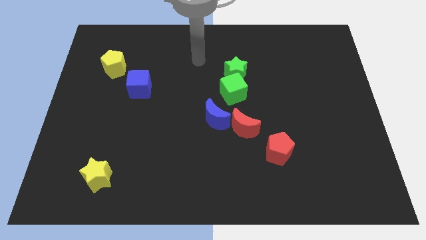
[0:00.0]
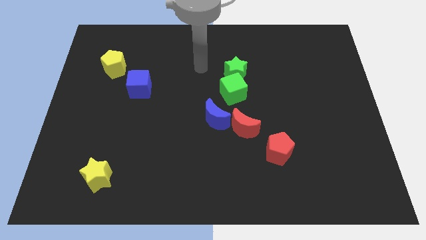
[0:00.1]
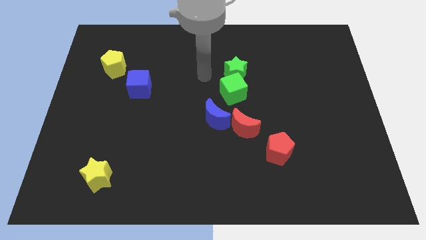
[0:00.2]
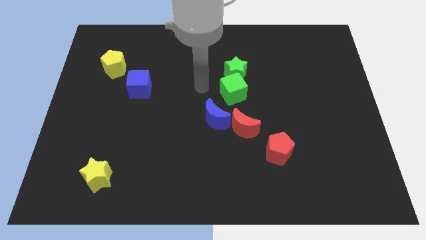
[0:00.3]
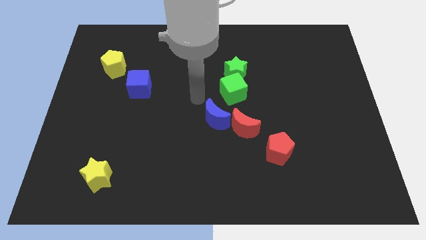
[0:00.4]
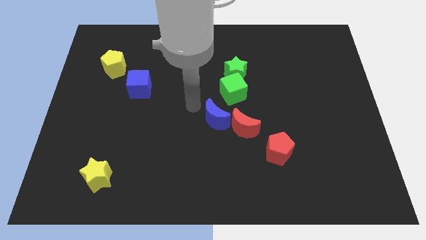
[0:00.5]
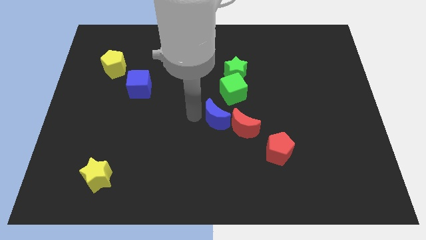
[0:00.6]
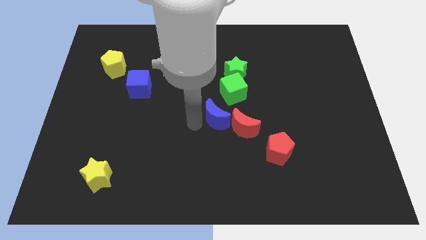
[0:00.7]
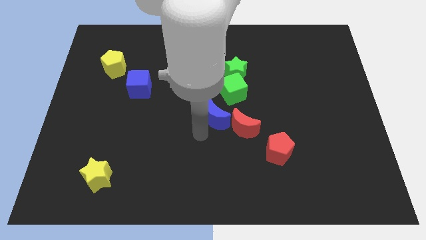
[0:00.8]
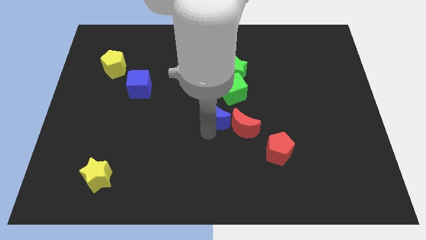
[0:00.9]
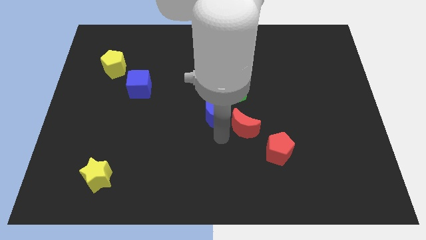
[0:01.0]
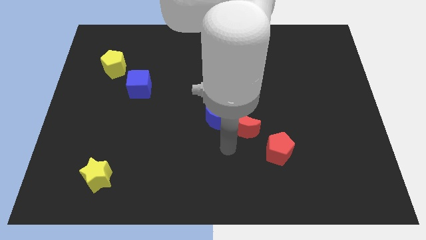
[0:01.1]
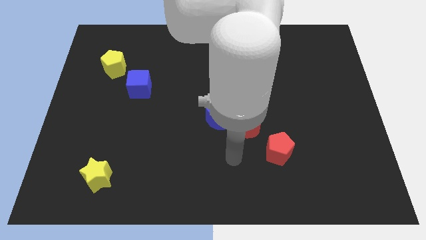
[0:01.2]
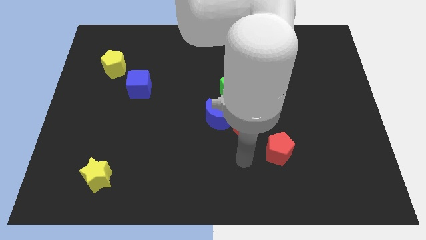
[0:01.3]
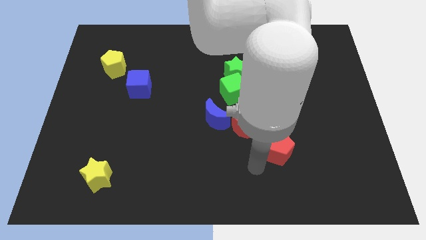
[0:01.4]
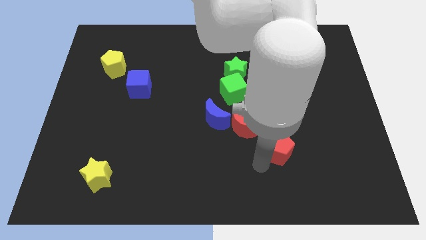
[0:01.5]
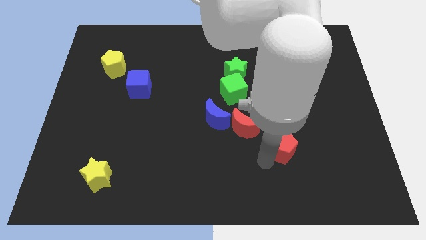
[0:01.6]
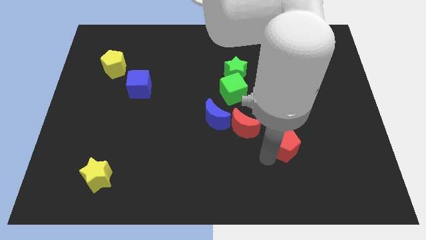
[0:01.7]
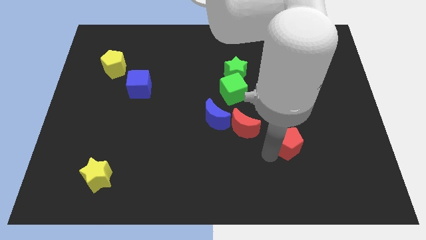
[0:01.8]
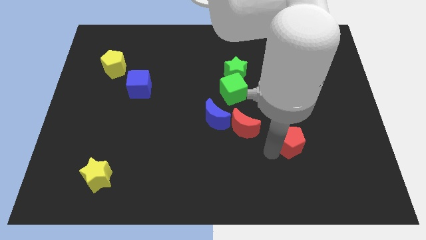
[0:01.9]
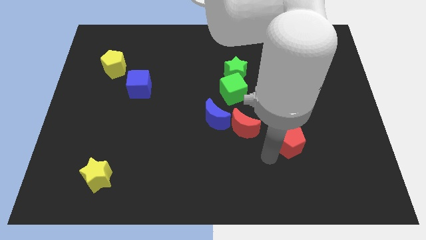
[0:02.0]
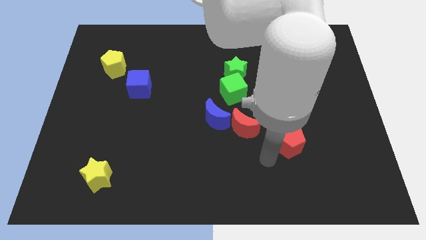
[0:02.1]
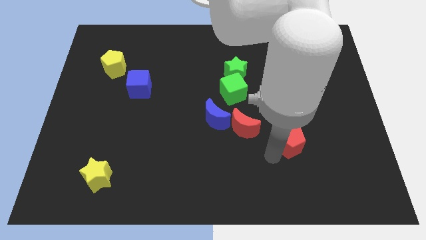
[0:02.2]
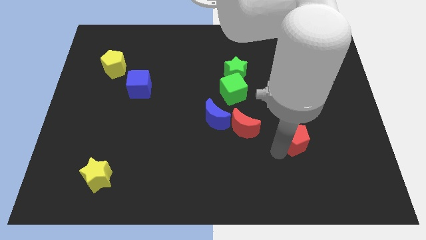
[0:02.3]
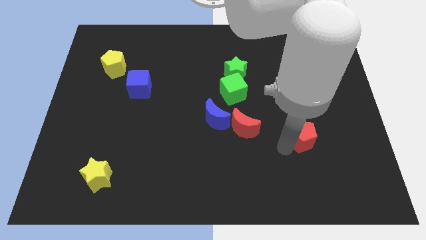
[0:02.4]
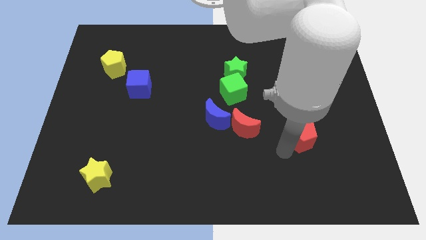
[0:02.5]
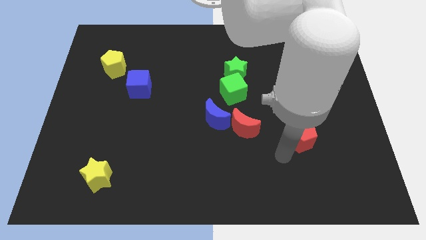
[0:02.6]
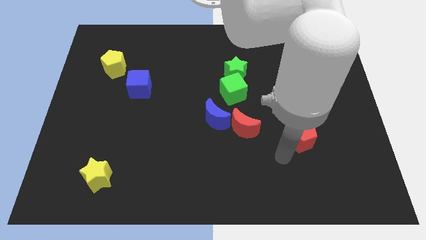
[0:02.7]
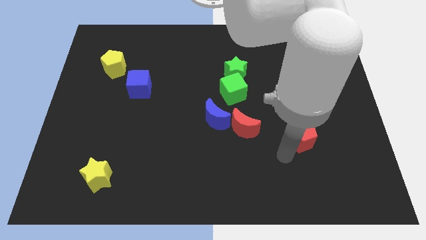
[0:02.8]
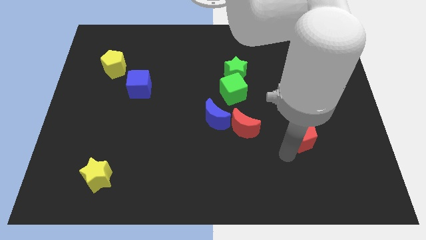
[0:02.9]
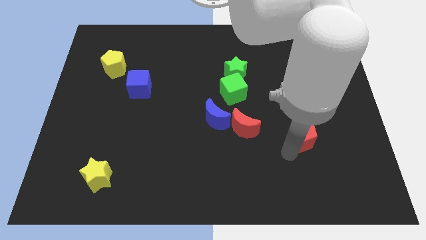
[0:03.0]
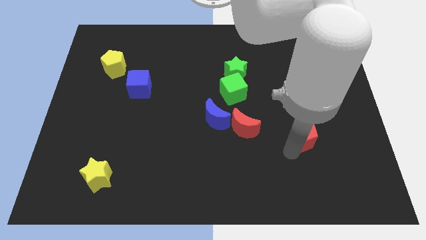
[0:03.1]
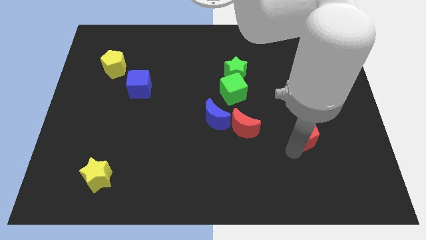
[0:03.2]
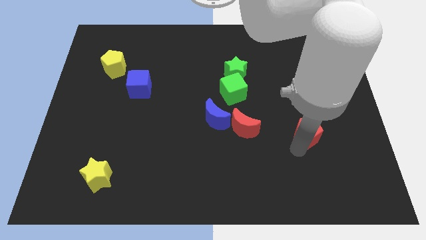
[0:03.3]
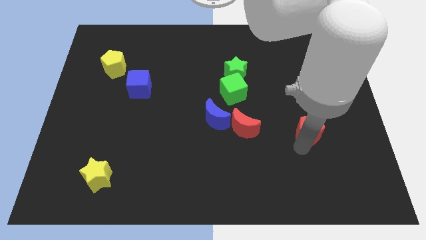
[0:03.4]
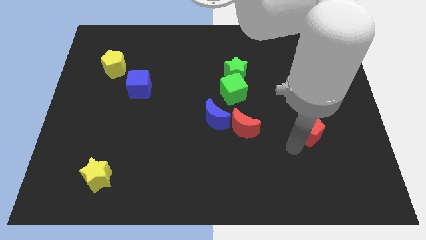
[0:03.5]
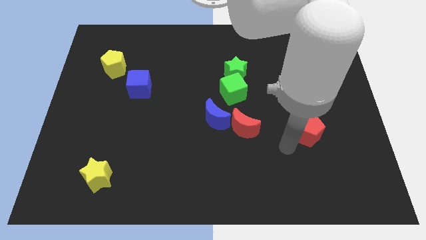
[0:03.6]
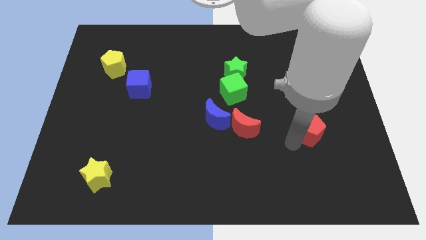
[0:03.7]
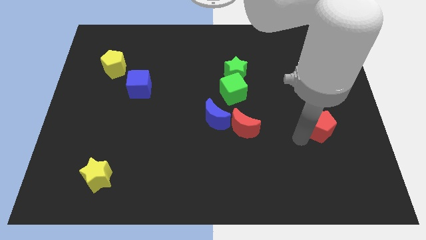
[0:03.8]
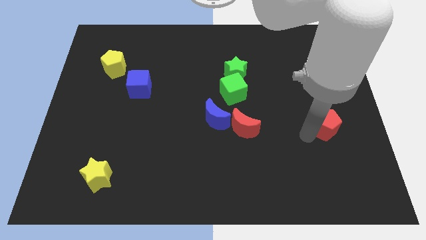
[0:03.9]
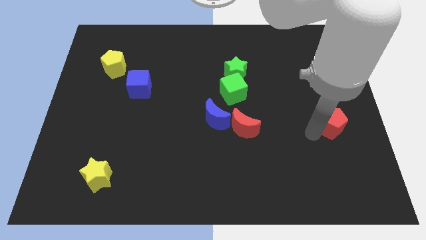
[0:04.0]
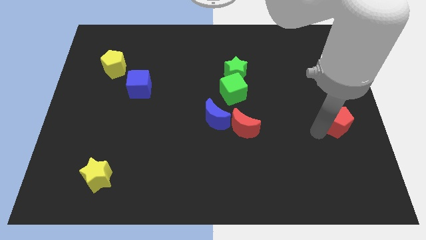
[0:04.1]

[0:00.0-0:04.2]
push the red pentagon to the center right

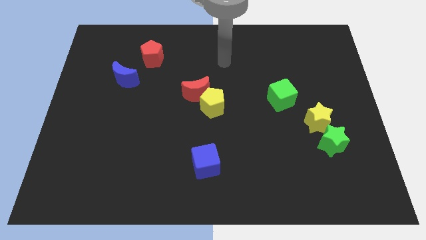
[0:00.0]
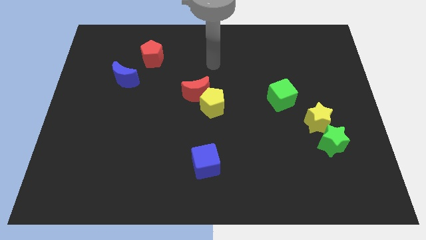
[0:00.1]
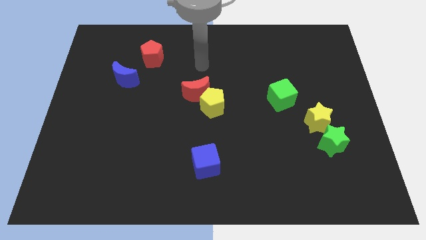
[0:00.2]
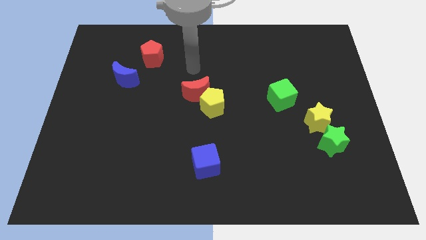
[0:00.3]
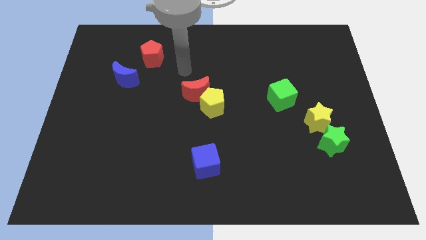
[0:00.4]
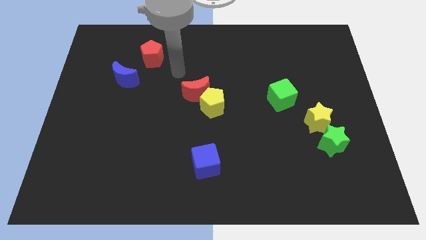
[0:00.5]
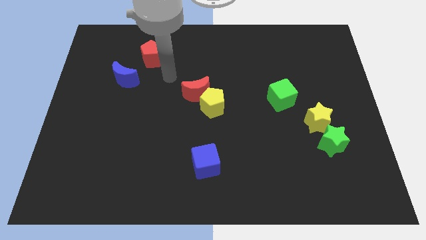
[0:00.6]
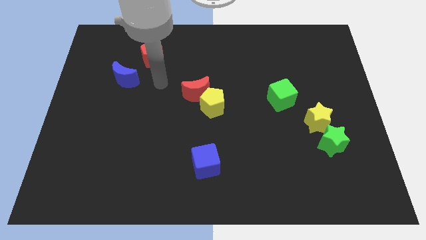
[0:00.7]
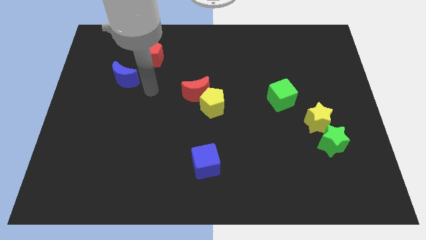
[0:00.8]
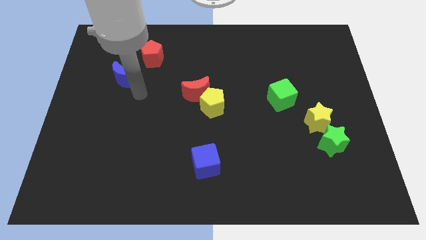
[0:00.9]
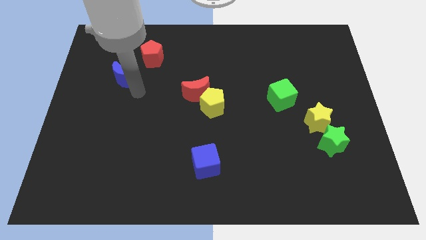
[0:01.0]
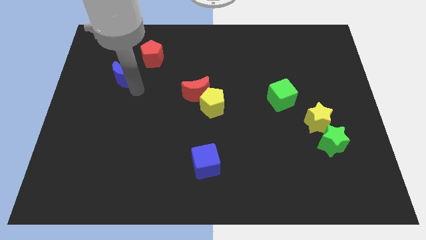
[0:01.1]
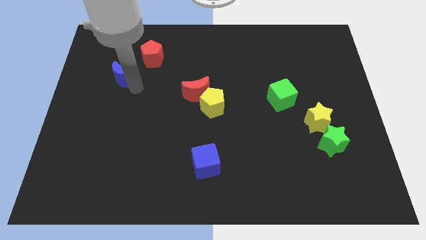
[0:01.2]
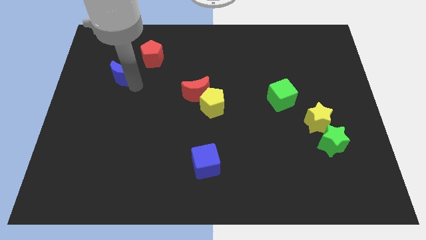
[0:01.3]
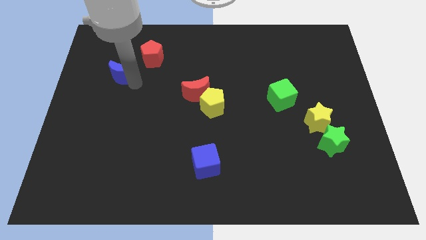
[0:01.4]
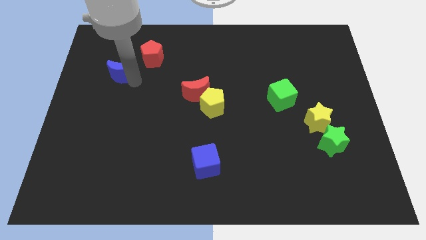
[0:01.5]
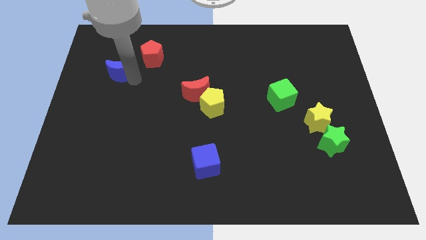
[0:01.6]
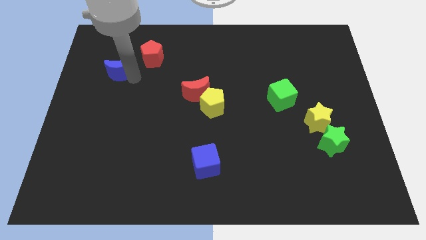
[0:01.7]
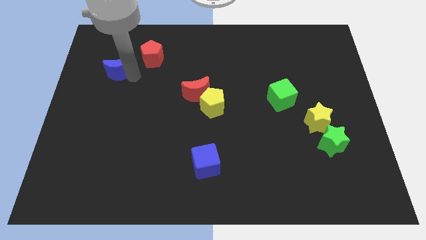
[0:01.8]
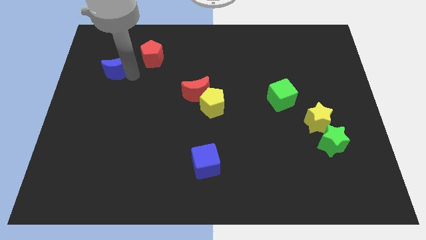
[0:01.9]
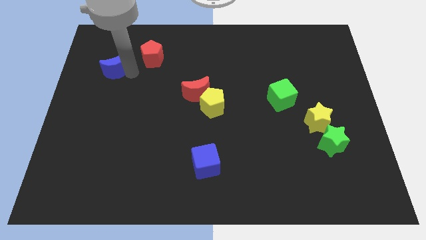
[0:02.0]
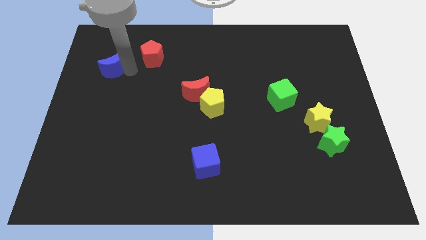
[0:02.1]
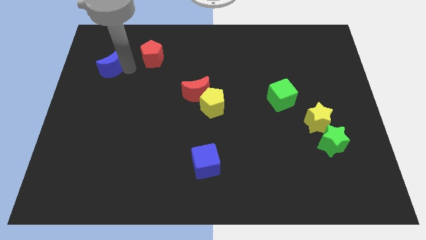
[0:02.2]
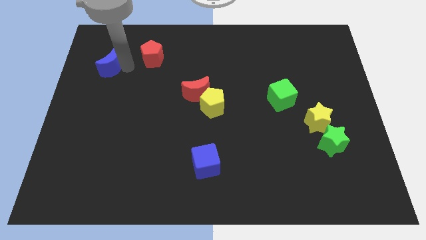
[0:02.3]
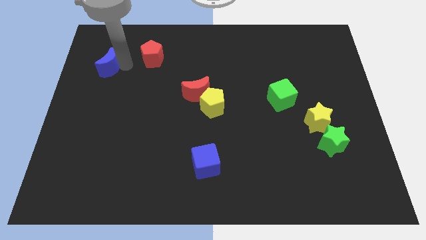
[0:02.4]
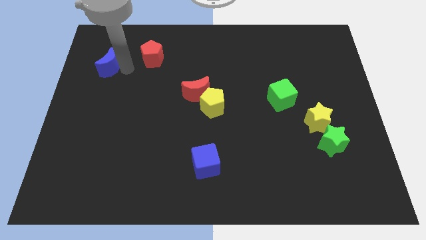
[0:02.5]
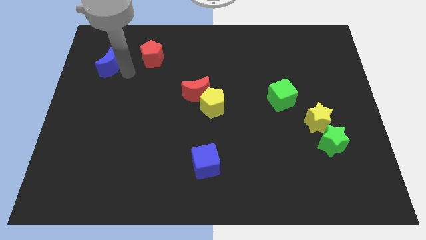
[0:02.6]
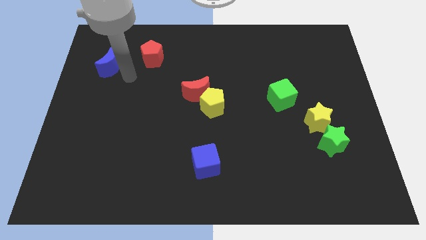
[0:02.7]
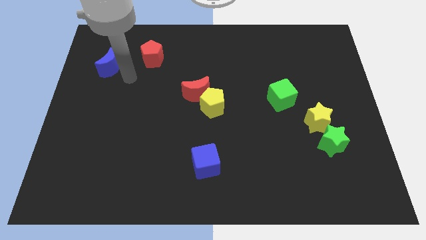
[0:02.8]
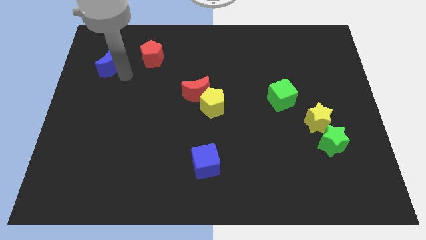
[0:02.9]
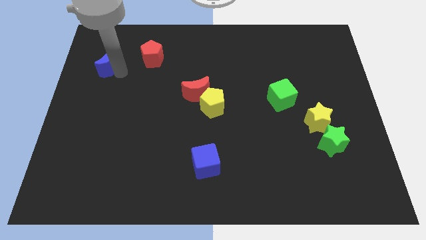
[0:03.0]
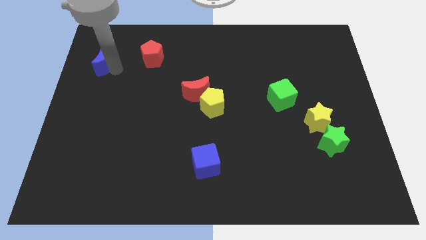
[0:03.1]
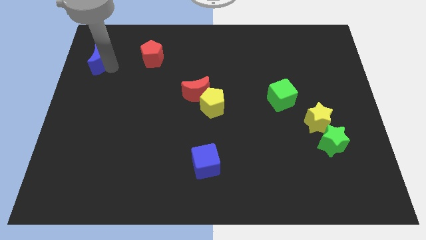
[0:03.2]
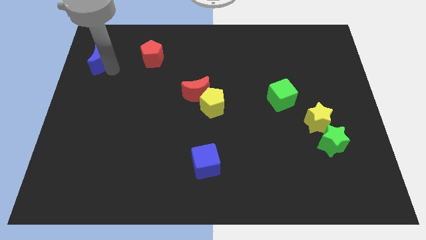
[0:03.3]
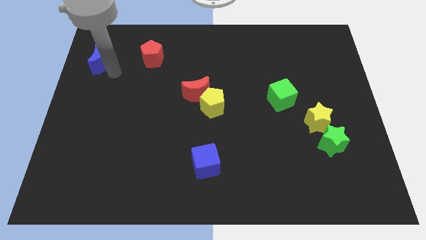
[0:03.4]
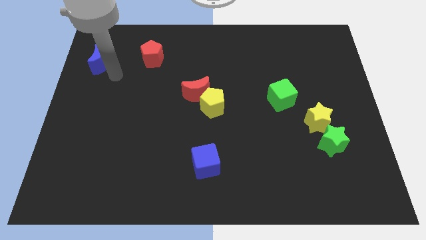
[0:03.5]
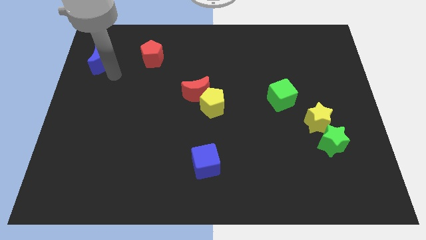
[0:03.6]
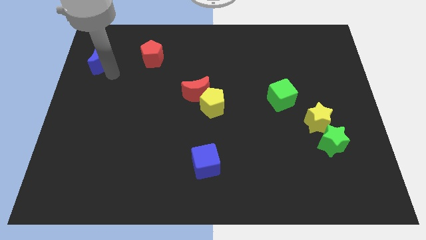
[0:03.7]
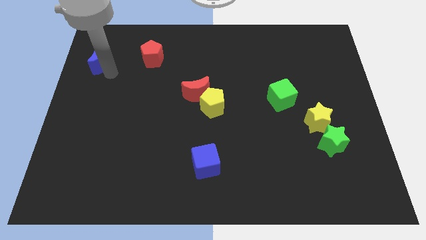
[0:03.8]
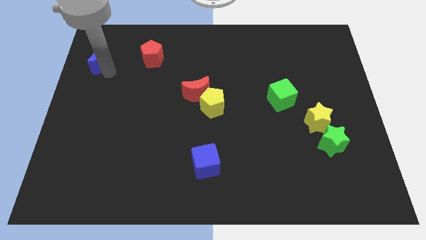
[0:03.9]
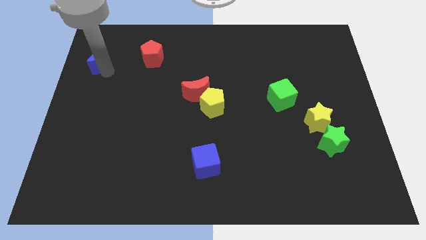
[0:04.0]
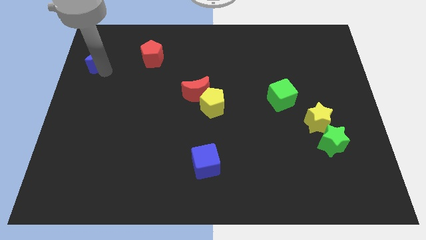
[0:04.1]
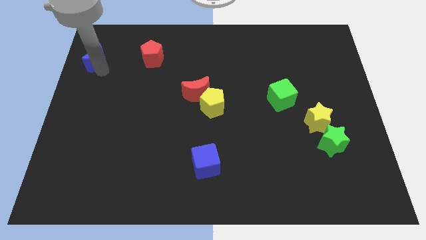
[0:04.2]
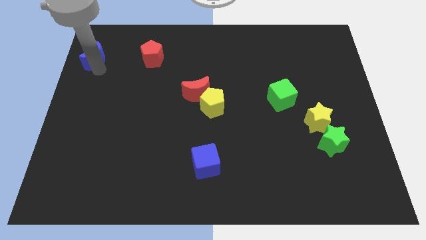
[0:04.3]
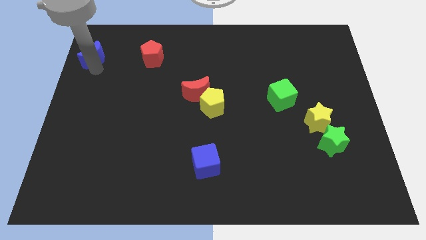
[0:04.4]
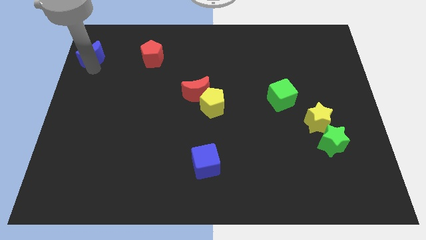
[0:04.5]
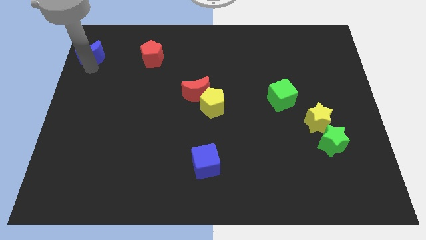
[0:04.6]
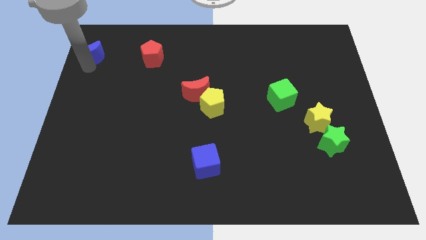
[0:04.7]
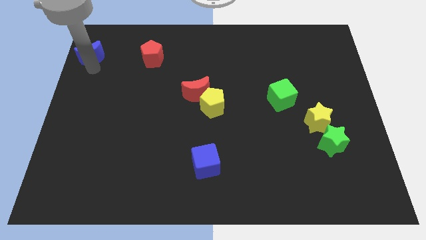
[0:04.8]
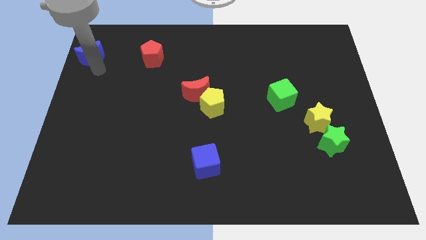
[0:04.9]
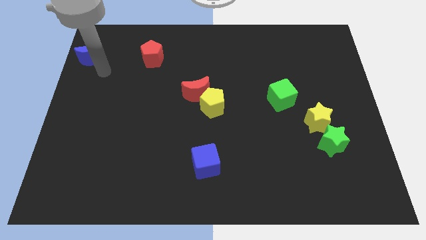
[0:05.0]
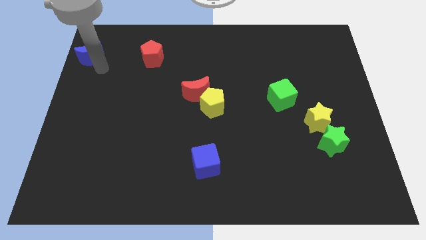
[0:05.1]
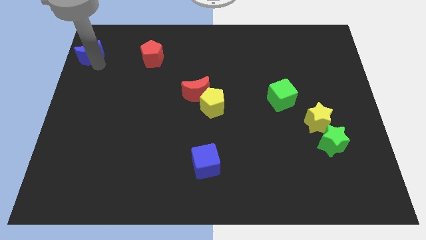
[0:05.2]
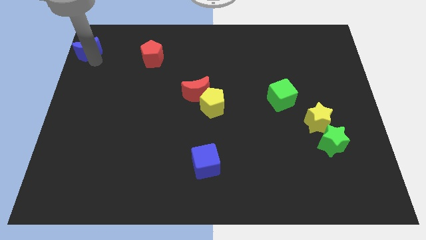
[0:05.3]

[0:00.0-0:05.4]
slide the blue moon to the top left corner
